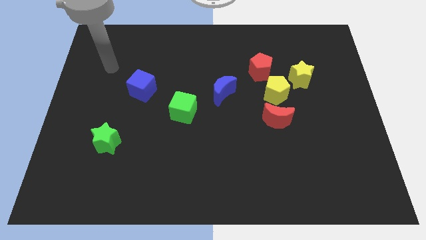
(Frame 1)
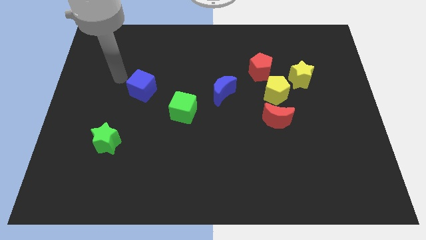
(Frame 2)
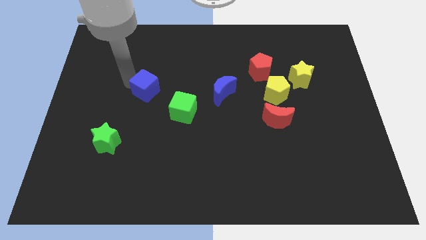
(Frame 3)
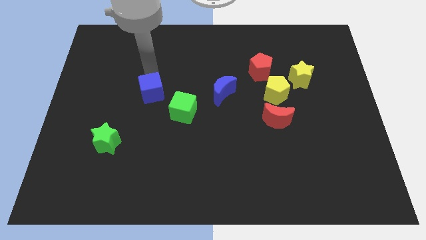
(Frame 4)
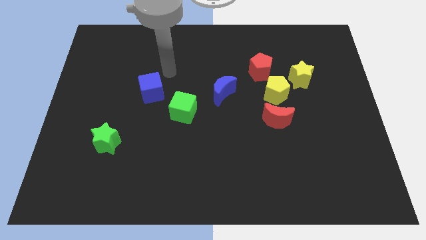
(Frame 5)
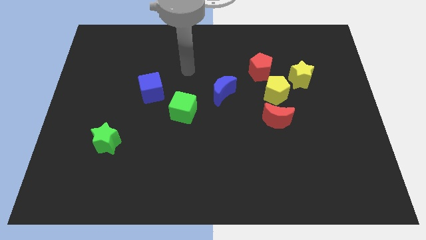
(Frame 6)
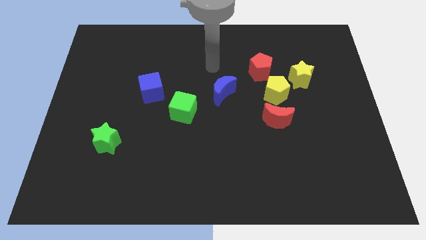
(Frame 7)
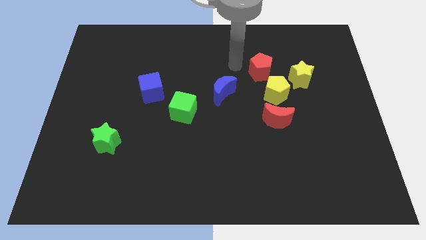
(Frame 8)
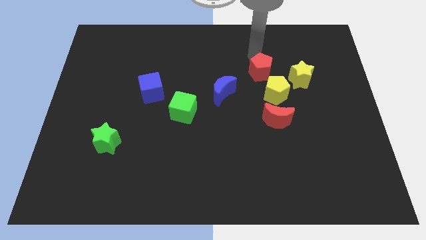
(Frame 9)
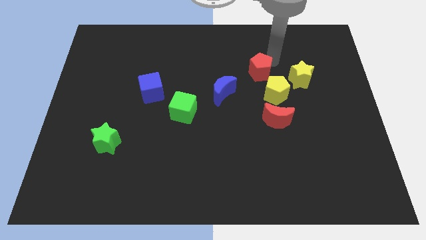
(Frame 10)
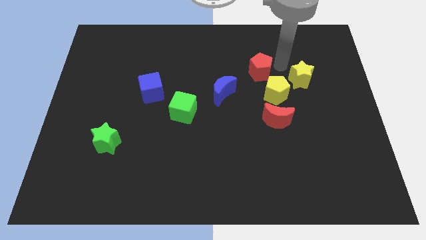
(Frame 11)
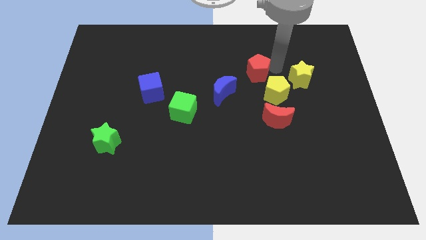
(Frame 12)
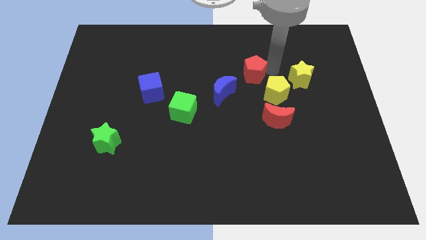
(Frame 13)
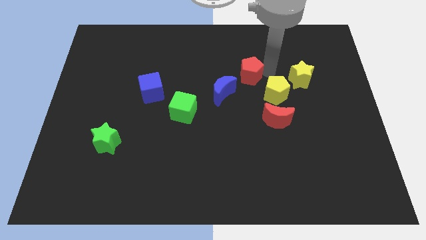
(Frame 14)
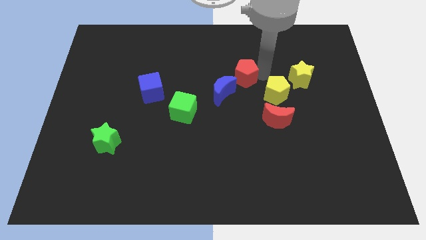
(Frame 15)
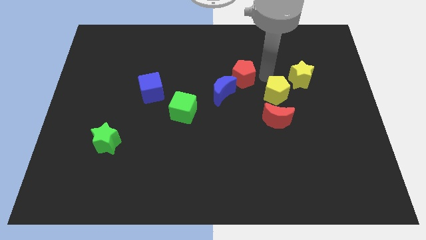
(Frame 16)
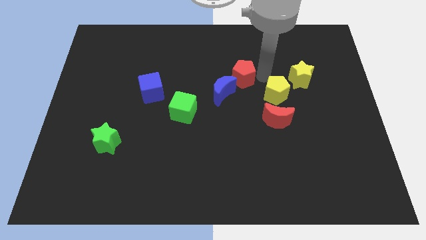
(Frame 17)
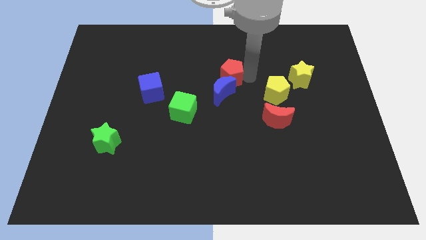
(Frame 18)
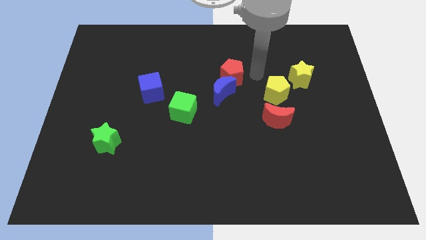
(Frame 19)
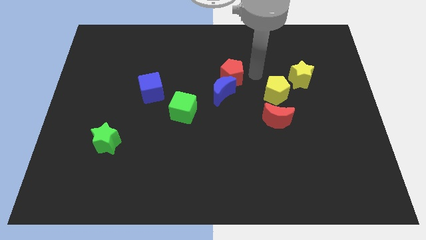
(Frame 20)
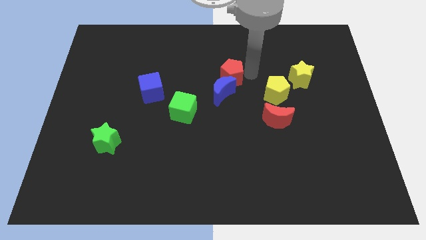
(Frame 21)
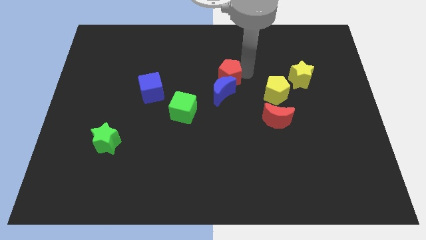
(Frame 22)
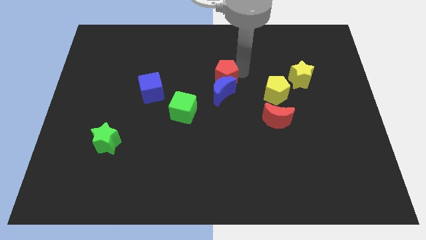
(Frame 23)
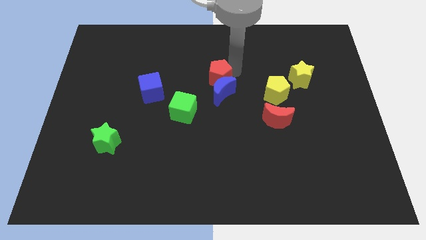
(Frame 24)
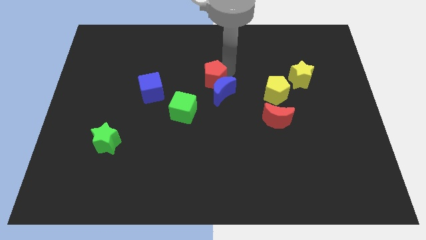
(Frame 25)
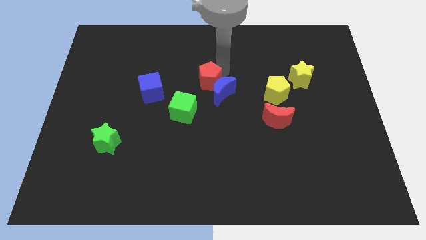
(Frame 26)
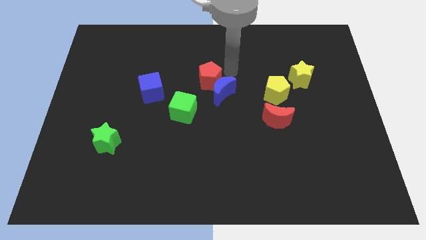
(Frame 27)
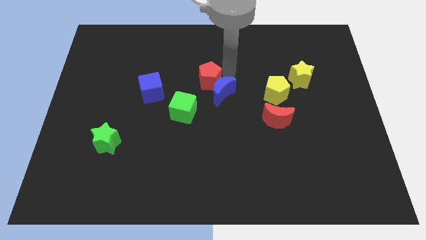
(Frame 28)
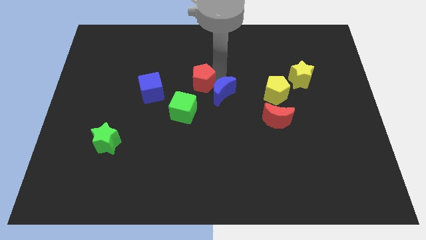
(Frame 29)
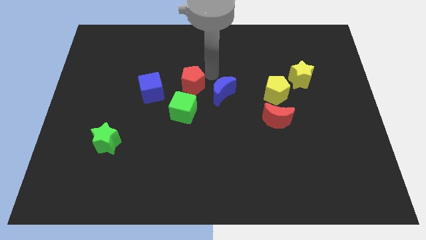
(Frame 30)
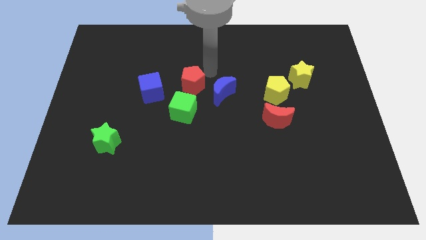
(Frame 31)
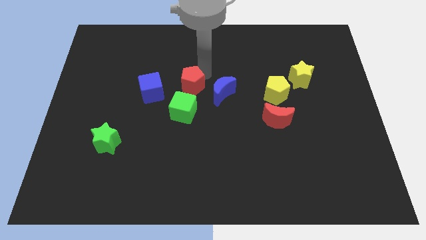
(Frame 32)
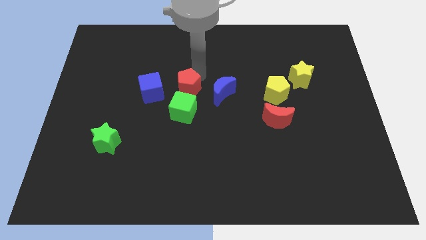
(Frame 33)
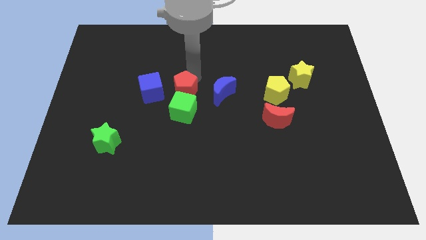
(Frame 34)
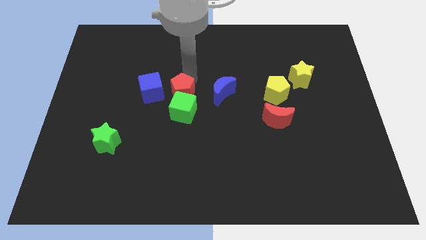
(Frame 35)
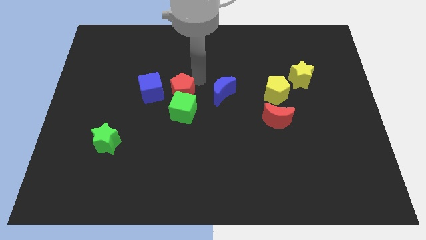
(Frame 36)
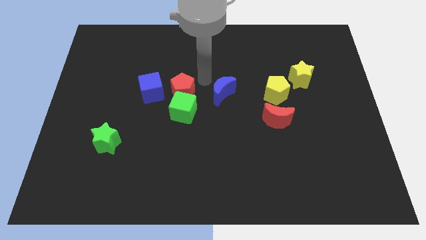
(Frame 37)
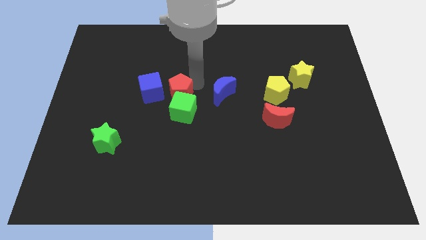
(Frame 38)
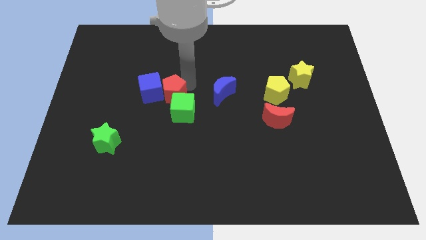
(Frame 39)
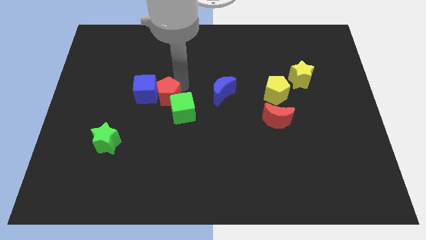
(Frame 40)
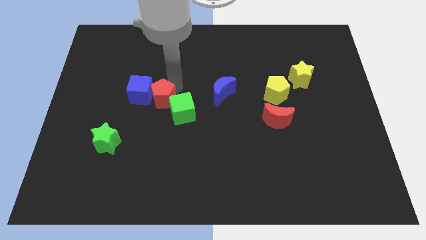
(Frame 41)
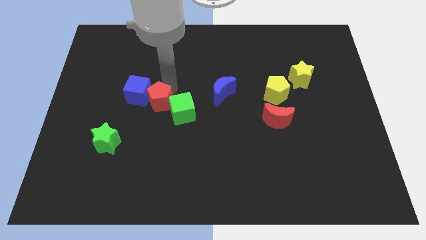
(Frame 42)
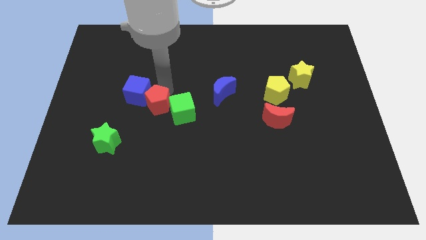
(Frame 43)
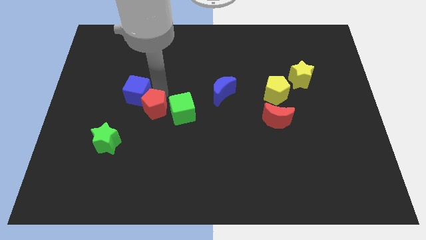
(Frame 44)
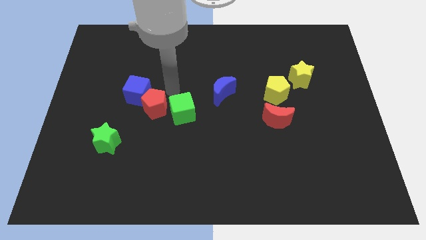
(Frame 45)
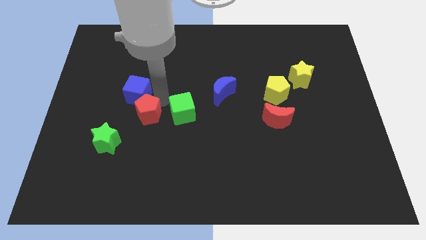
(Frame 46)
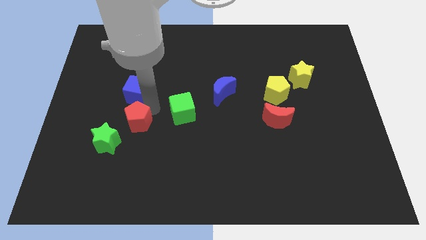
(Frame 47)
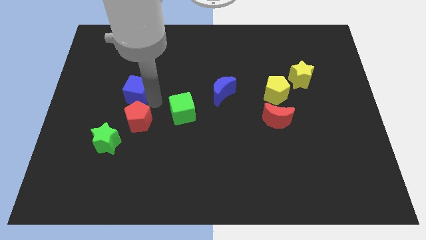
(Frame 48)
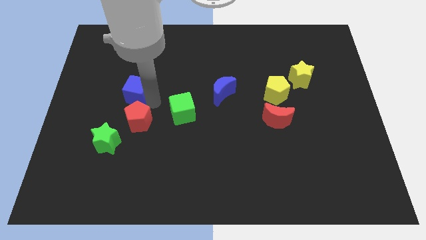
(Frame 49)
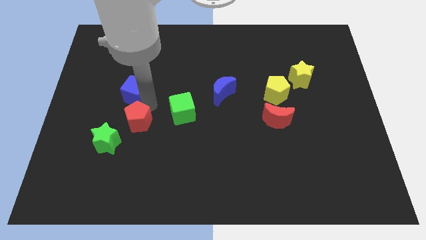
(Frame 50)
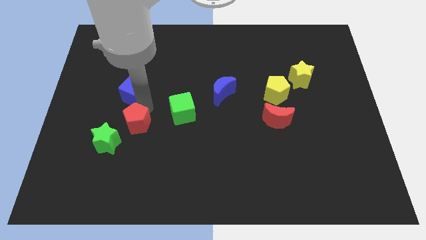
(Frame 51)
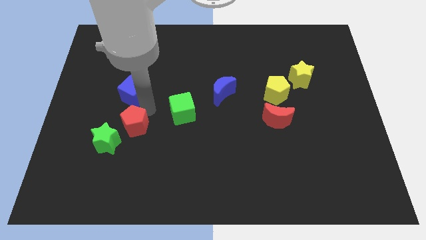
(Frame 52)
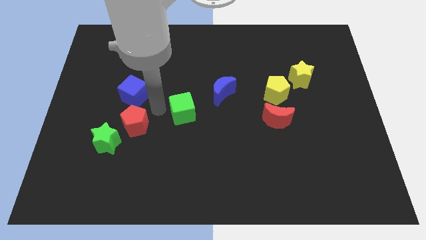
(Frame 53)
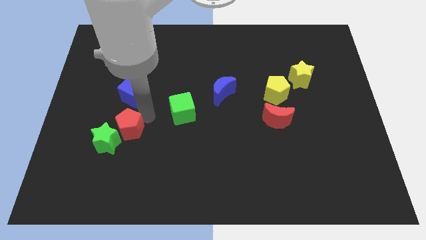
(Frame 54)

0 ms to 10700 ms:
move the red pentagon to the green star

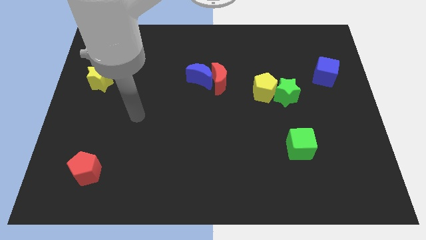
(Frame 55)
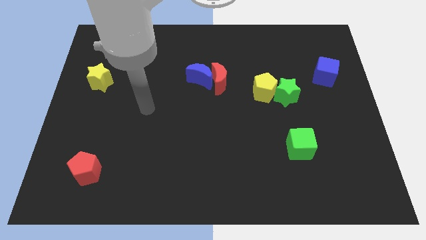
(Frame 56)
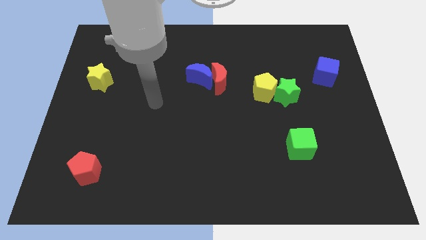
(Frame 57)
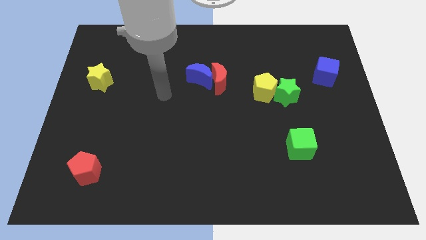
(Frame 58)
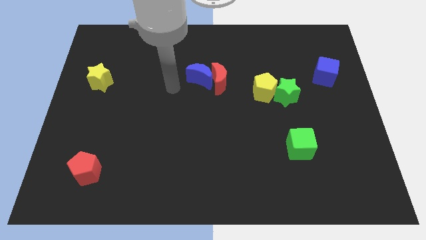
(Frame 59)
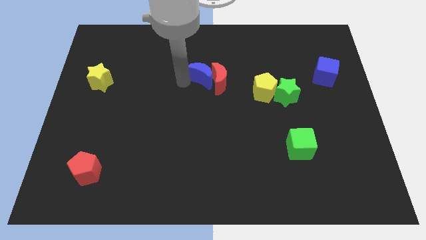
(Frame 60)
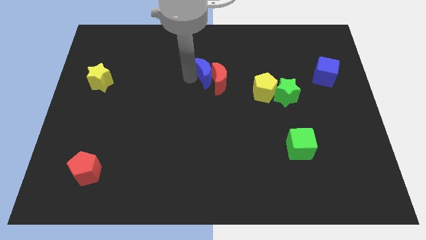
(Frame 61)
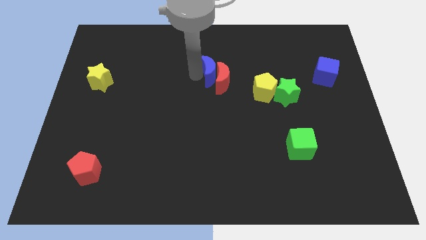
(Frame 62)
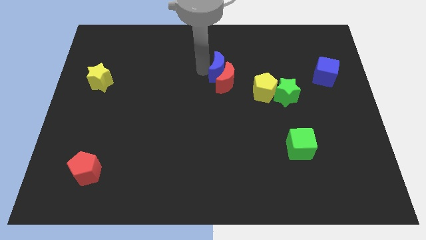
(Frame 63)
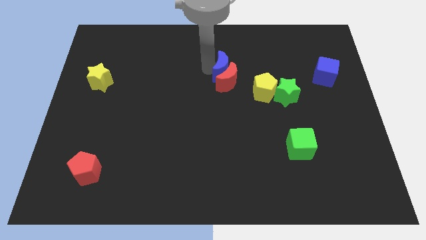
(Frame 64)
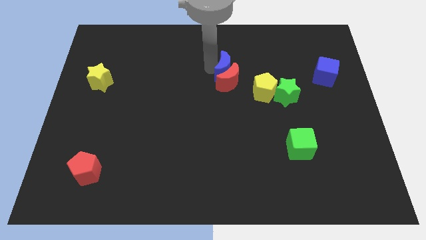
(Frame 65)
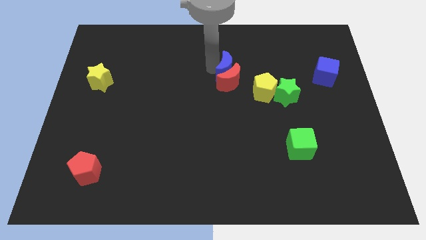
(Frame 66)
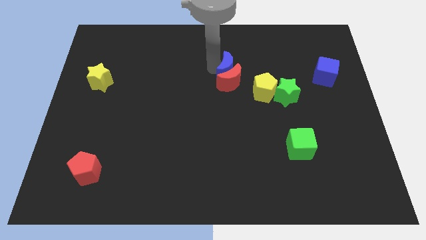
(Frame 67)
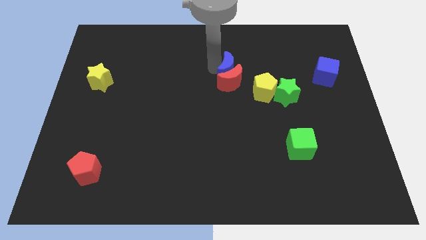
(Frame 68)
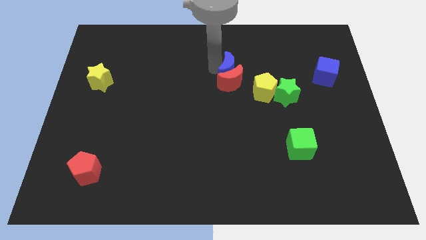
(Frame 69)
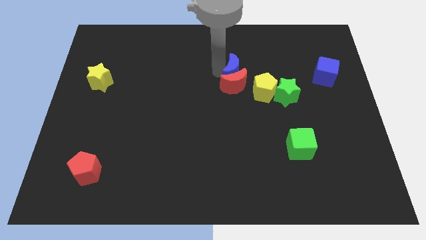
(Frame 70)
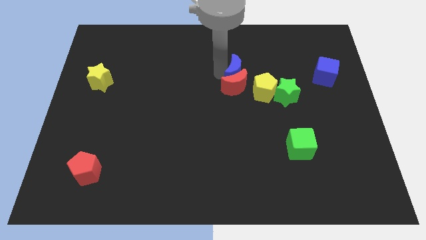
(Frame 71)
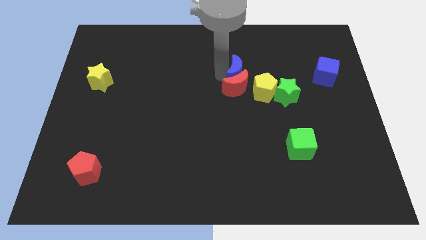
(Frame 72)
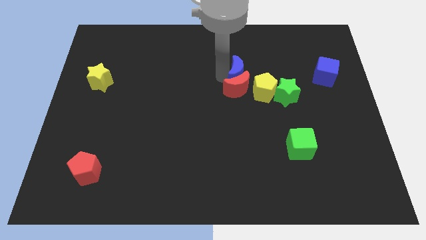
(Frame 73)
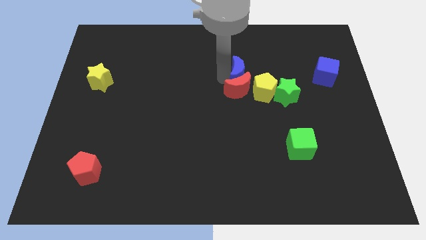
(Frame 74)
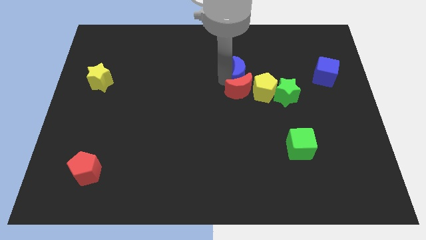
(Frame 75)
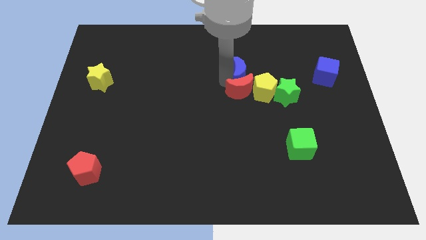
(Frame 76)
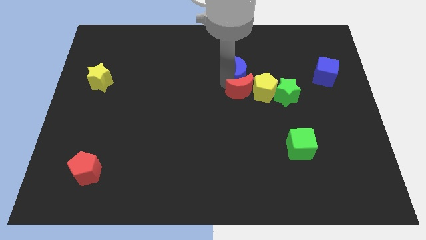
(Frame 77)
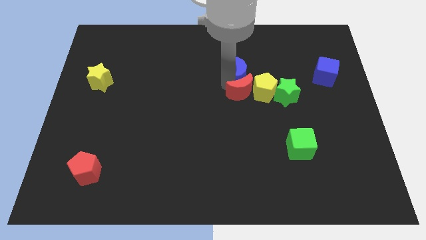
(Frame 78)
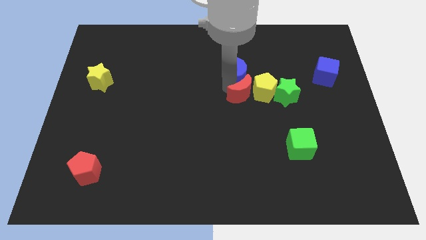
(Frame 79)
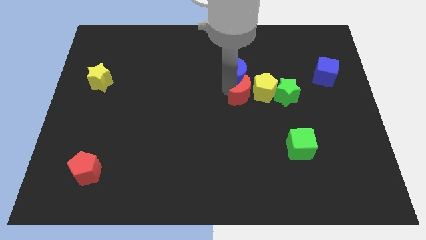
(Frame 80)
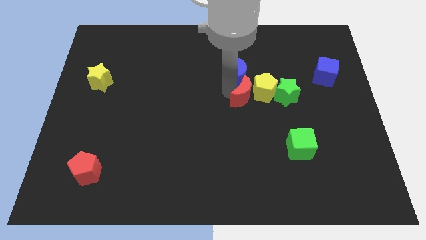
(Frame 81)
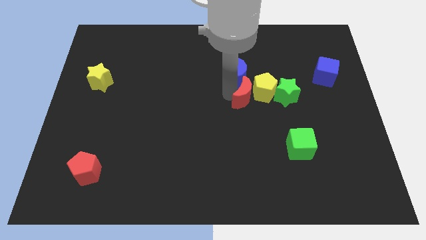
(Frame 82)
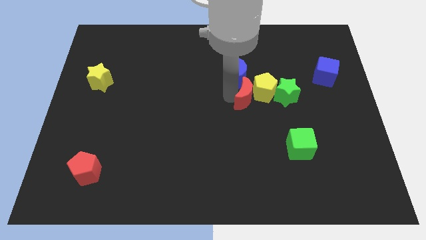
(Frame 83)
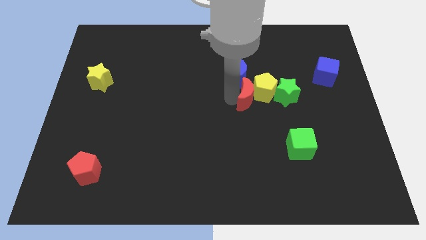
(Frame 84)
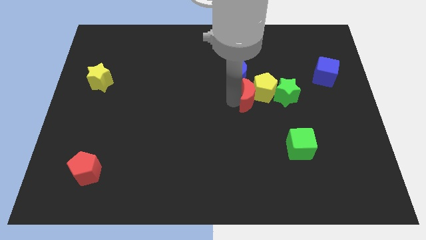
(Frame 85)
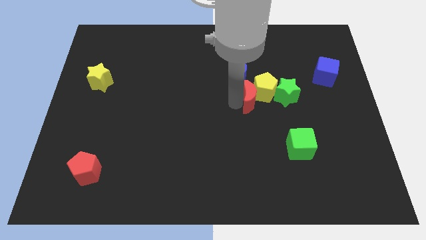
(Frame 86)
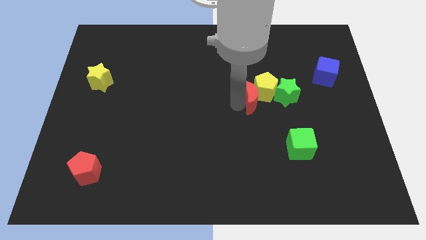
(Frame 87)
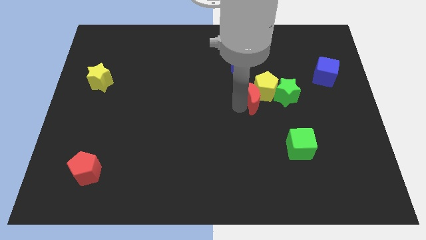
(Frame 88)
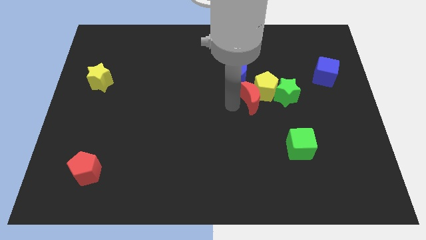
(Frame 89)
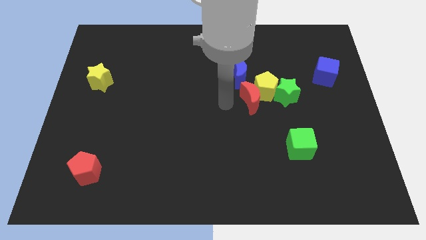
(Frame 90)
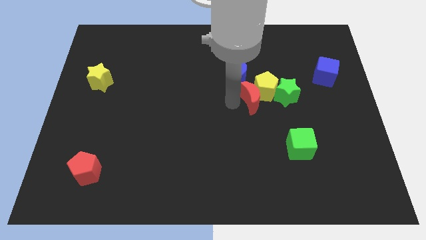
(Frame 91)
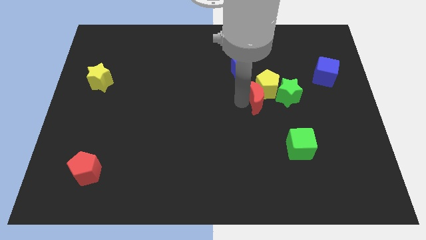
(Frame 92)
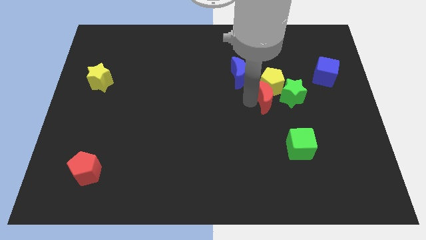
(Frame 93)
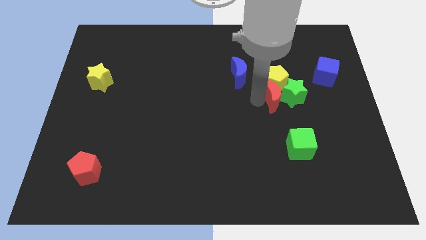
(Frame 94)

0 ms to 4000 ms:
put the red moon close to the green star
